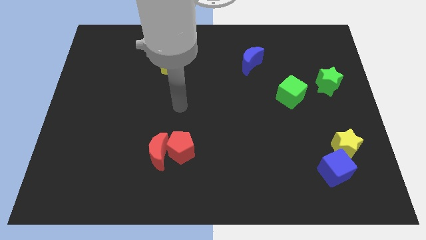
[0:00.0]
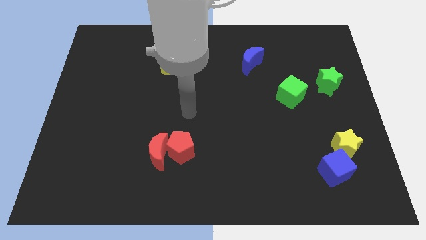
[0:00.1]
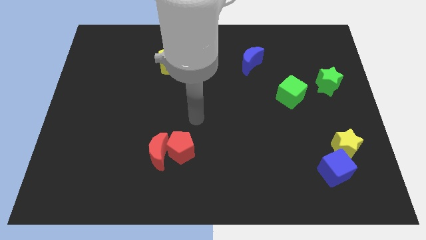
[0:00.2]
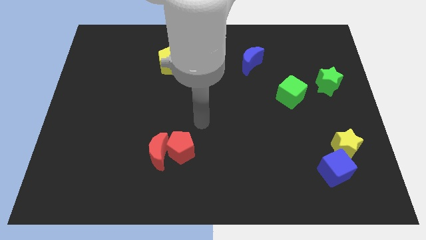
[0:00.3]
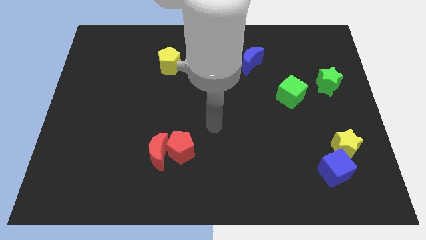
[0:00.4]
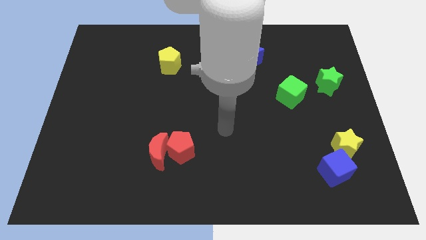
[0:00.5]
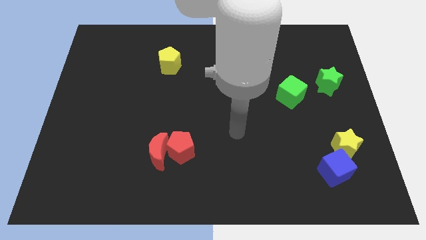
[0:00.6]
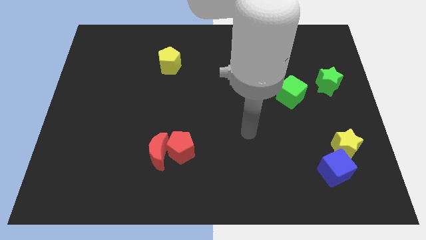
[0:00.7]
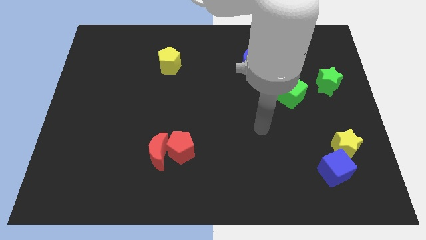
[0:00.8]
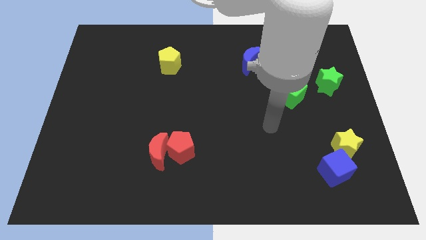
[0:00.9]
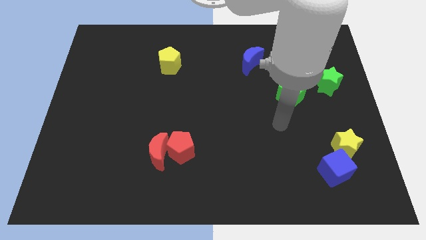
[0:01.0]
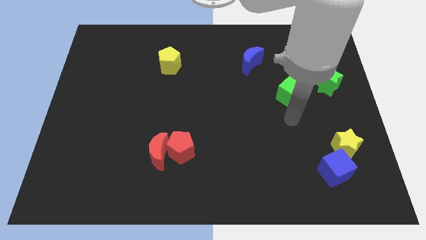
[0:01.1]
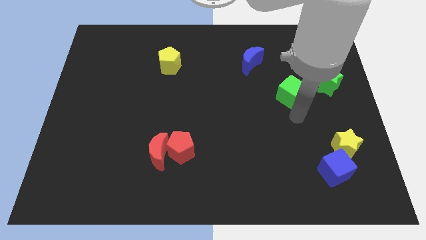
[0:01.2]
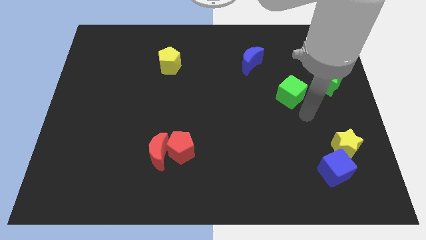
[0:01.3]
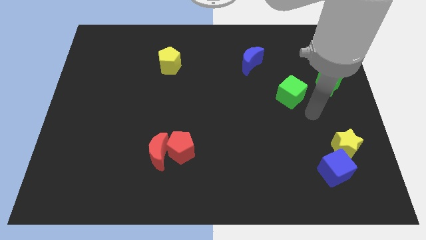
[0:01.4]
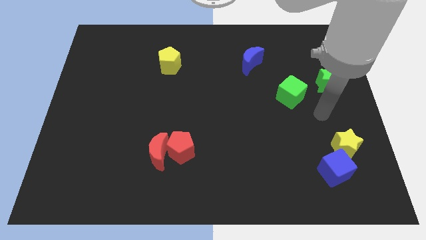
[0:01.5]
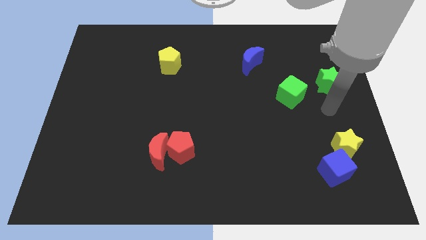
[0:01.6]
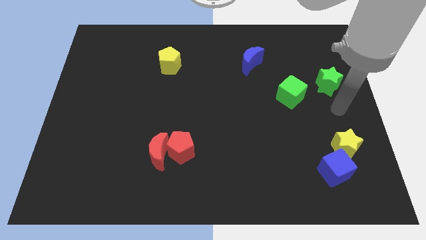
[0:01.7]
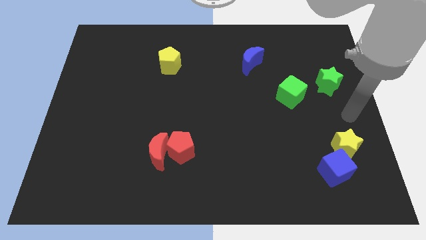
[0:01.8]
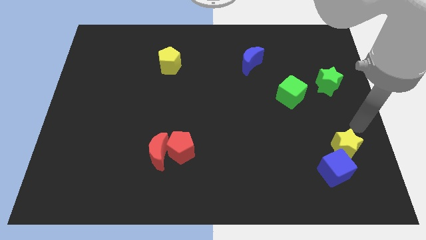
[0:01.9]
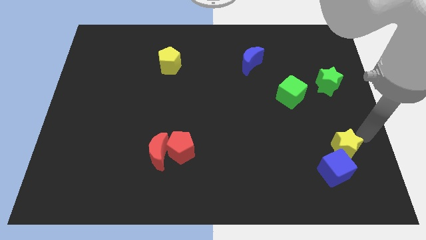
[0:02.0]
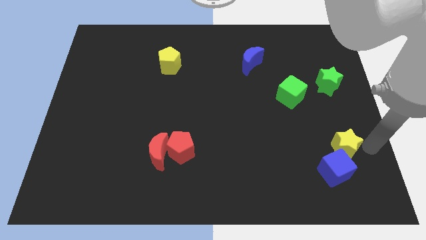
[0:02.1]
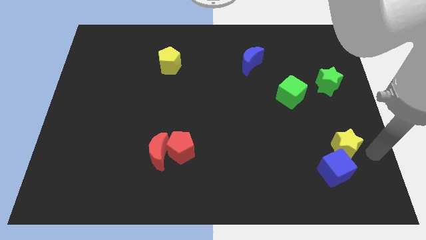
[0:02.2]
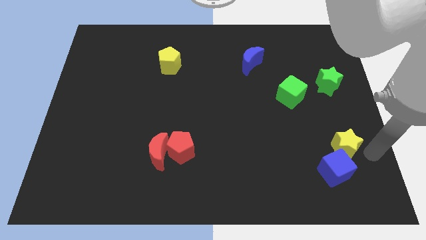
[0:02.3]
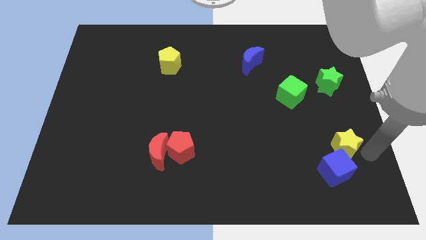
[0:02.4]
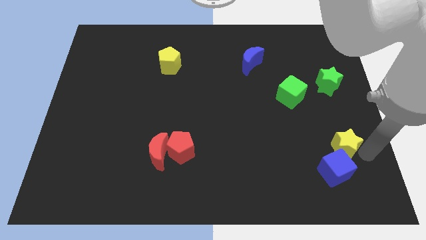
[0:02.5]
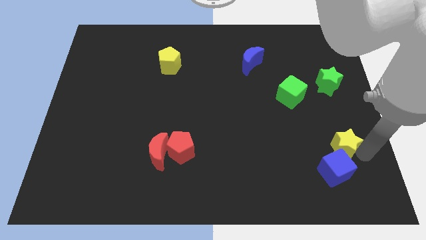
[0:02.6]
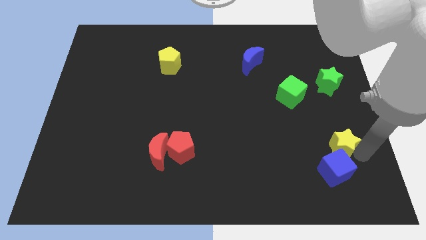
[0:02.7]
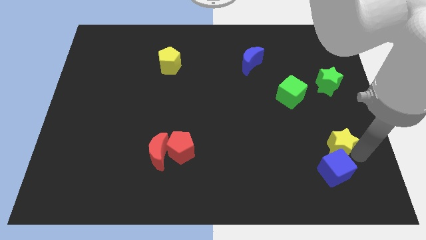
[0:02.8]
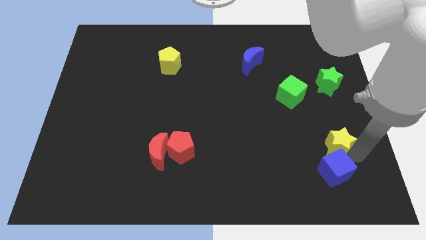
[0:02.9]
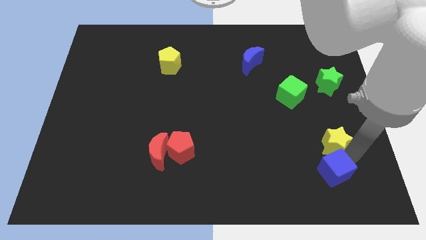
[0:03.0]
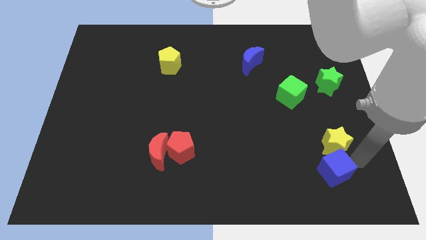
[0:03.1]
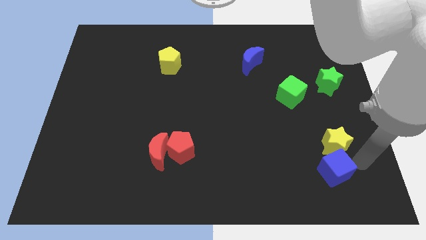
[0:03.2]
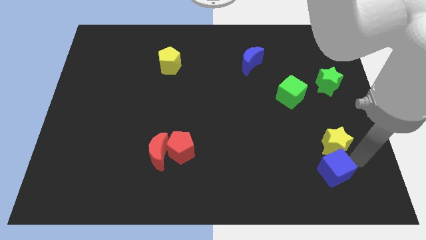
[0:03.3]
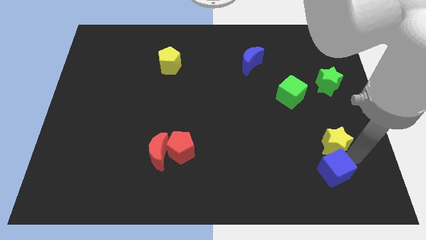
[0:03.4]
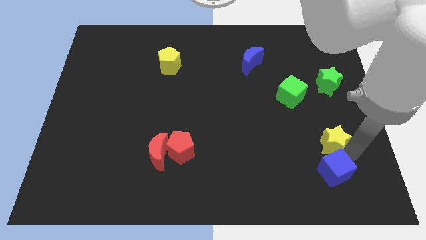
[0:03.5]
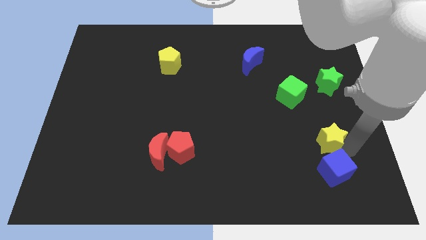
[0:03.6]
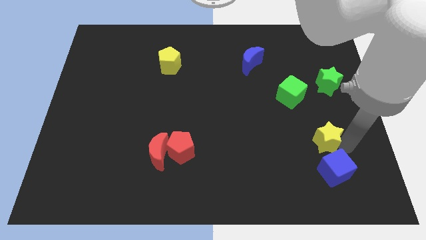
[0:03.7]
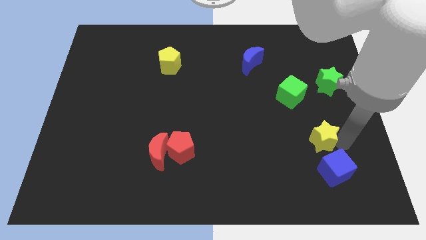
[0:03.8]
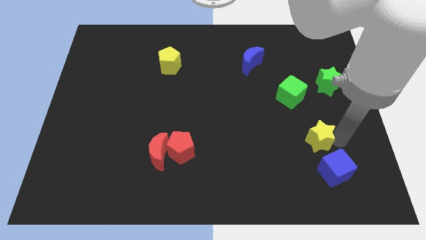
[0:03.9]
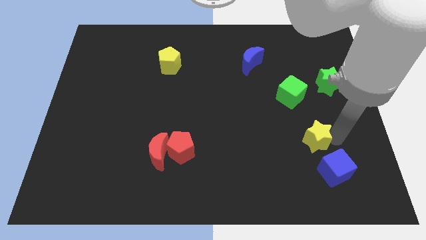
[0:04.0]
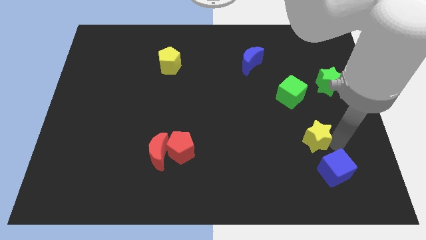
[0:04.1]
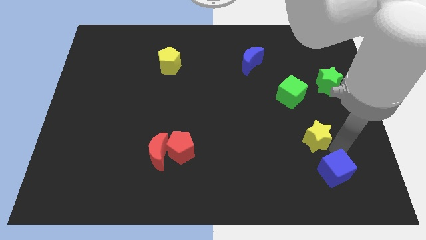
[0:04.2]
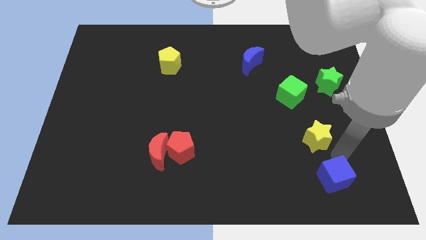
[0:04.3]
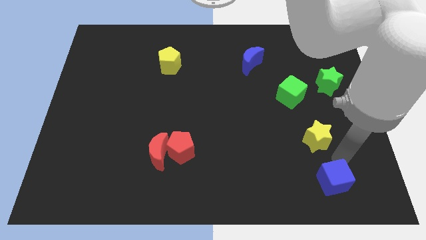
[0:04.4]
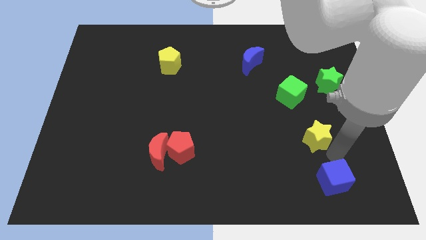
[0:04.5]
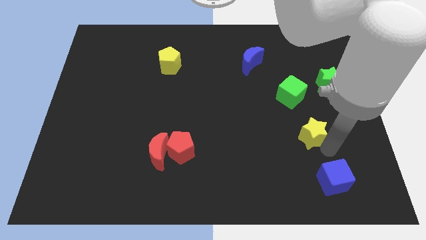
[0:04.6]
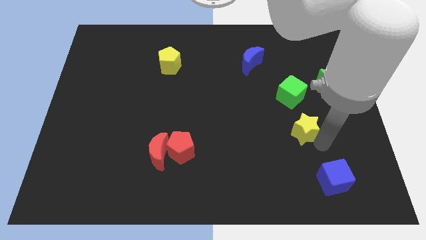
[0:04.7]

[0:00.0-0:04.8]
move the yellow star upwards and to the left slightly

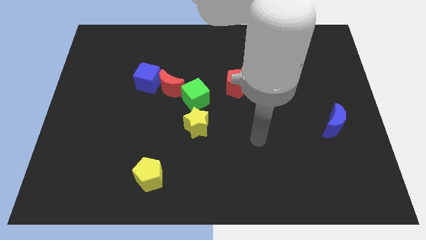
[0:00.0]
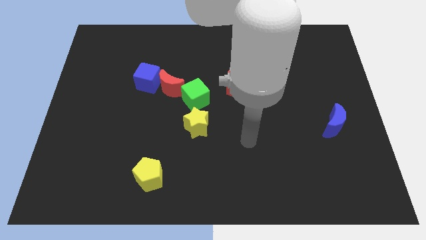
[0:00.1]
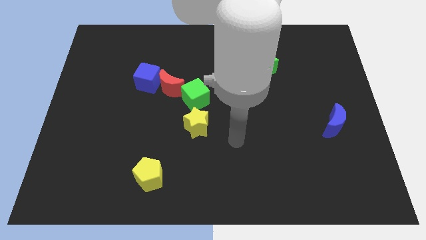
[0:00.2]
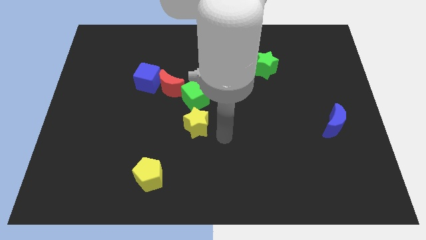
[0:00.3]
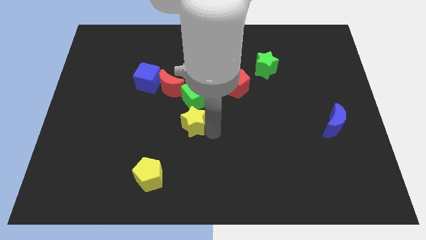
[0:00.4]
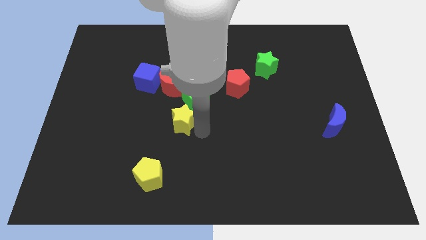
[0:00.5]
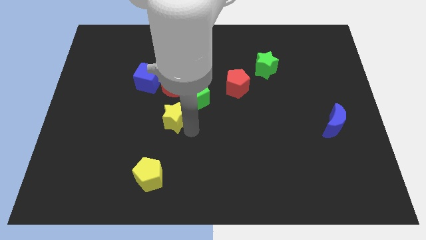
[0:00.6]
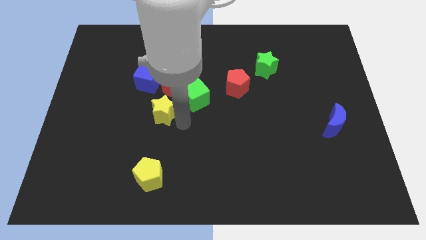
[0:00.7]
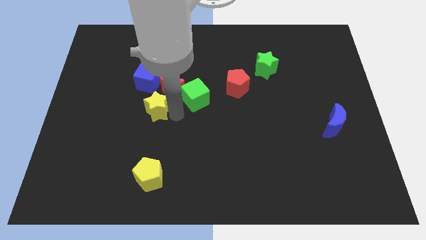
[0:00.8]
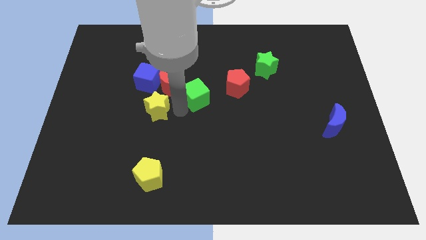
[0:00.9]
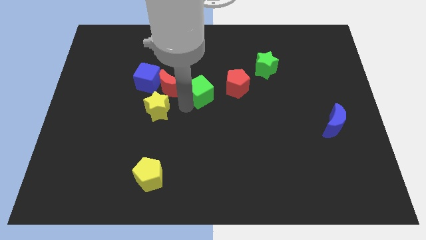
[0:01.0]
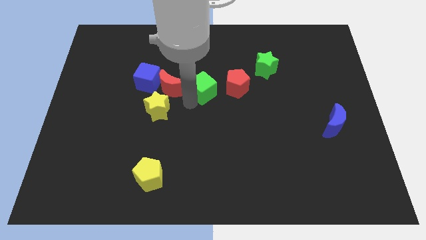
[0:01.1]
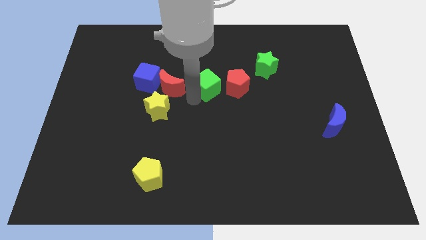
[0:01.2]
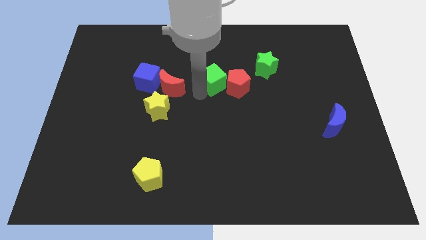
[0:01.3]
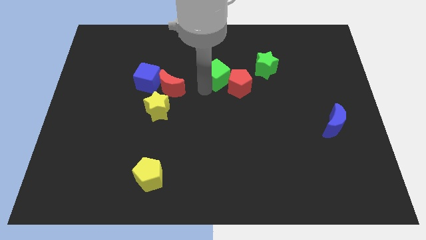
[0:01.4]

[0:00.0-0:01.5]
push the green cube a little bit up and then right

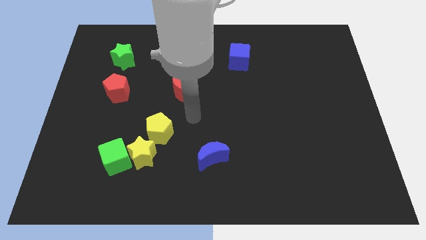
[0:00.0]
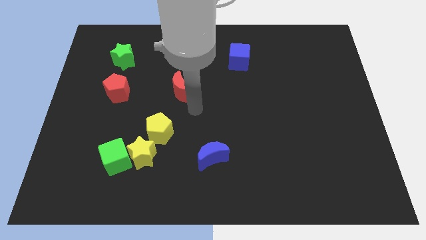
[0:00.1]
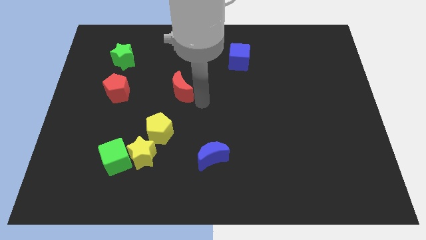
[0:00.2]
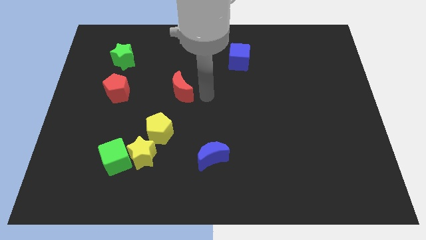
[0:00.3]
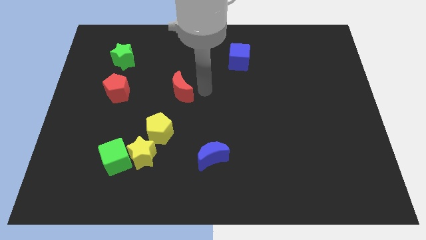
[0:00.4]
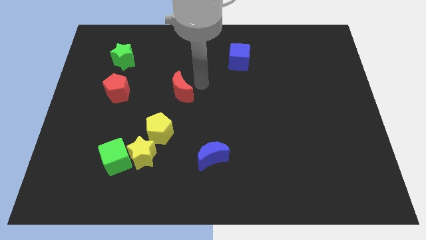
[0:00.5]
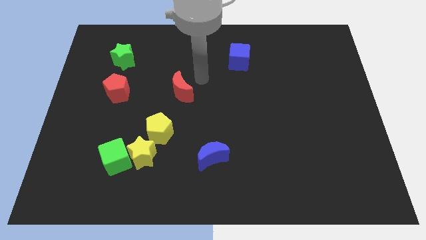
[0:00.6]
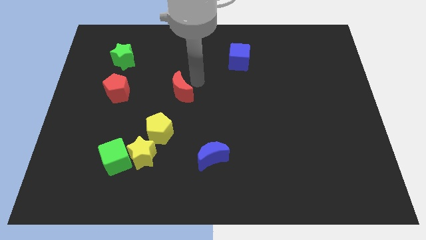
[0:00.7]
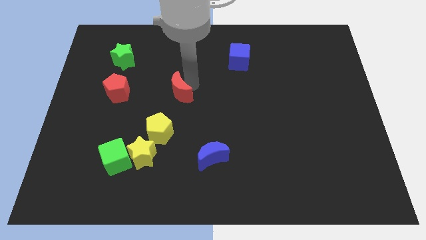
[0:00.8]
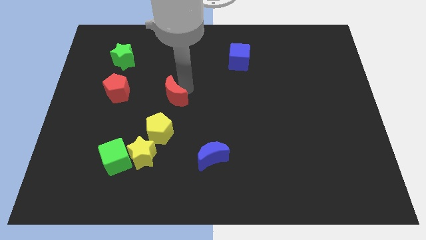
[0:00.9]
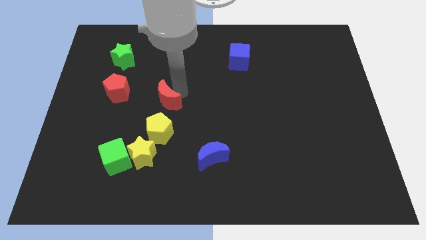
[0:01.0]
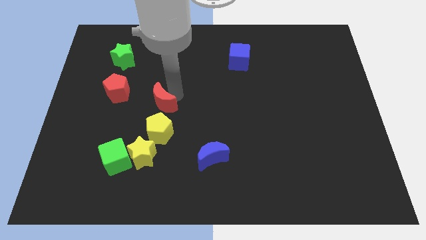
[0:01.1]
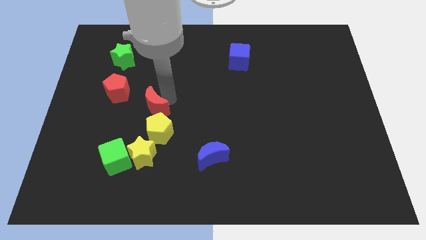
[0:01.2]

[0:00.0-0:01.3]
slightly slide the red moon down and then to the left

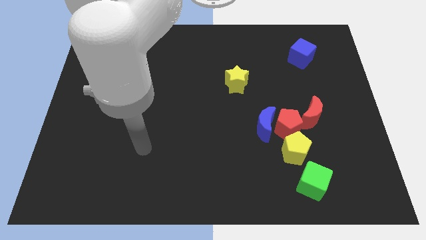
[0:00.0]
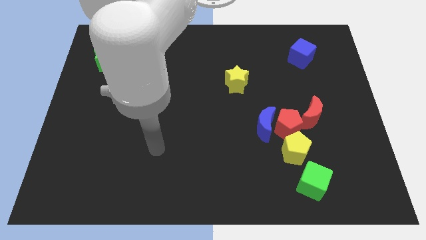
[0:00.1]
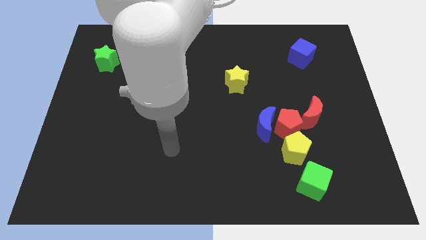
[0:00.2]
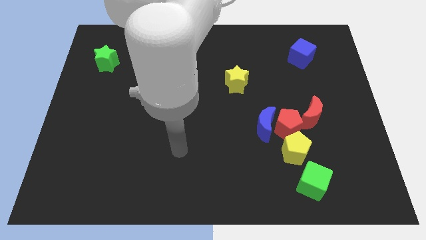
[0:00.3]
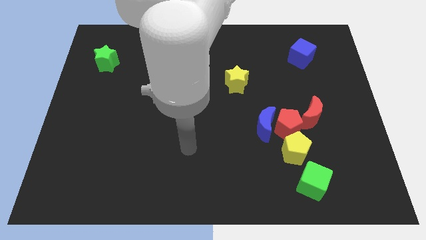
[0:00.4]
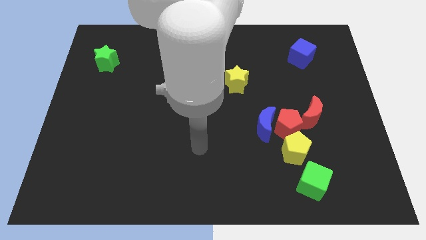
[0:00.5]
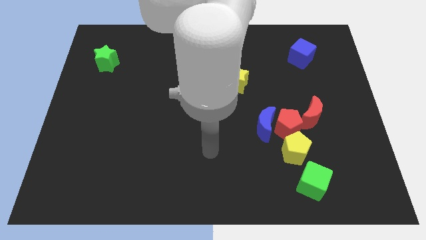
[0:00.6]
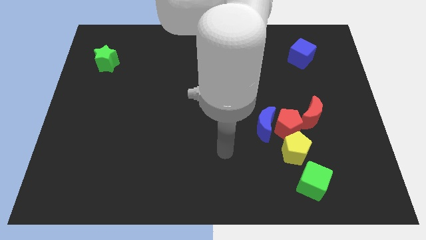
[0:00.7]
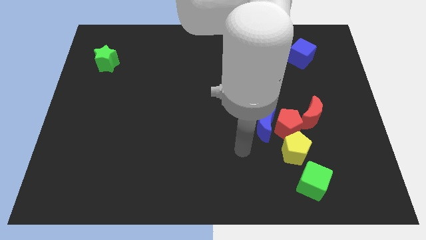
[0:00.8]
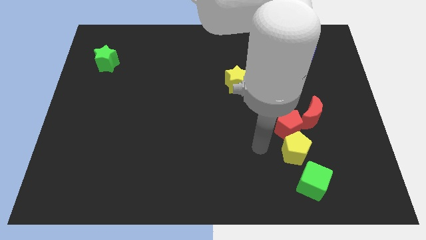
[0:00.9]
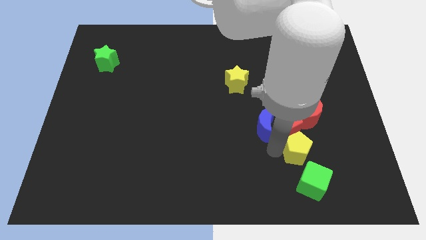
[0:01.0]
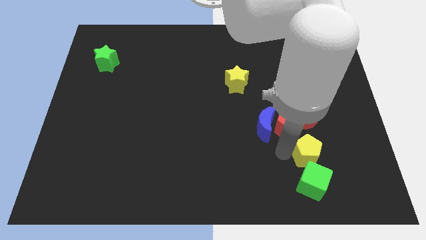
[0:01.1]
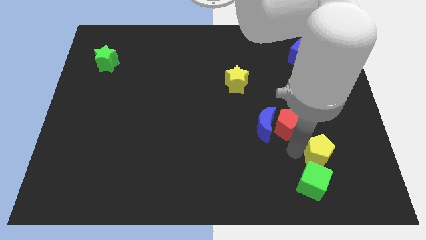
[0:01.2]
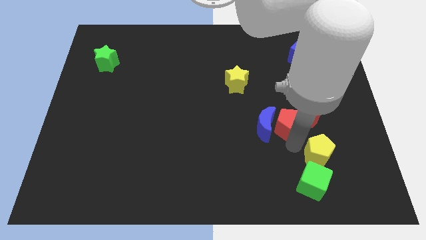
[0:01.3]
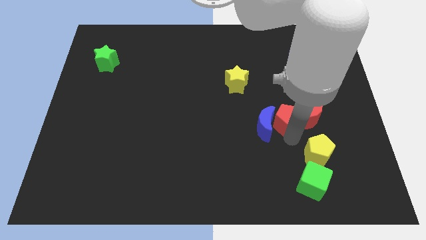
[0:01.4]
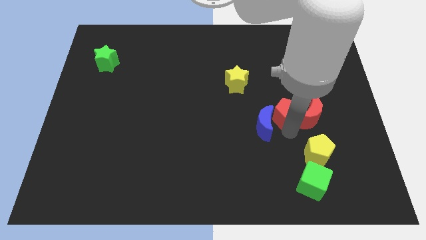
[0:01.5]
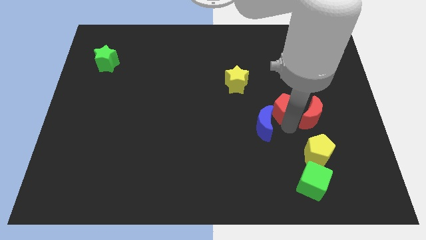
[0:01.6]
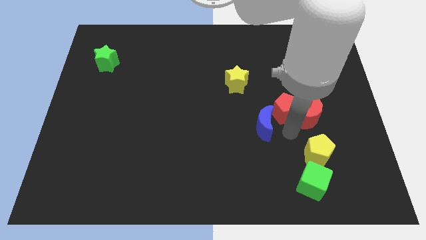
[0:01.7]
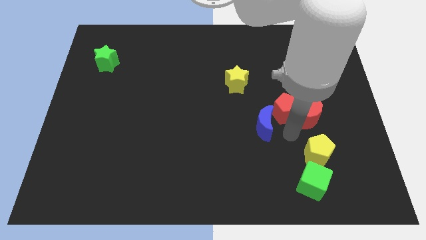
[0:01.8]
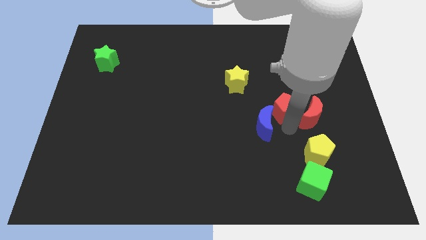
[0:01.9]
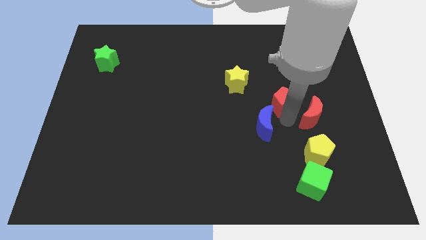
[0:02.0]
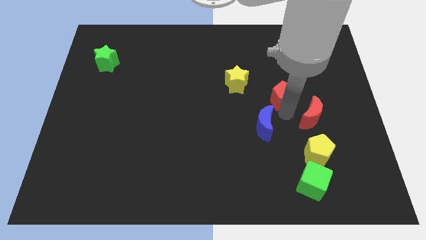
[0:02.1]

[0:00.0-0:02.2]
push the red pentagon a little upwards
